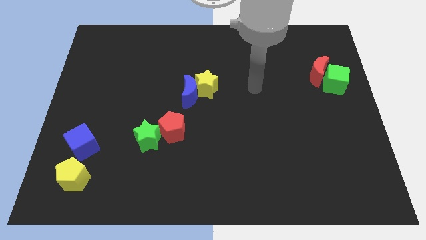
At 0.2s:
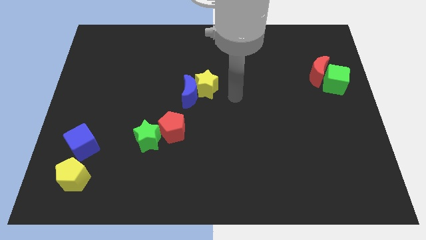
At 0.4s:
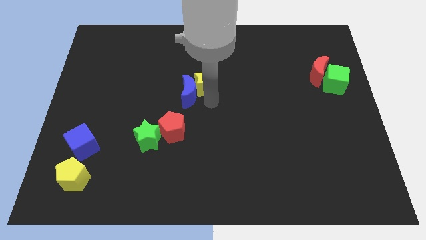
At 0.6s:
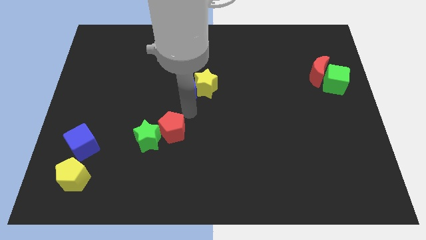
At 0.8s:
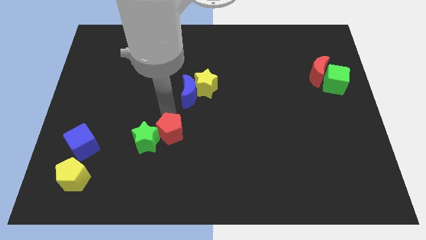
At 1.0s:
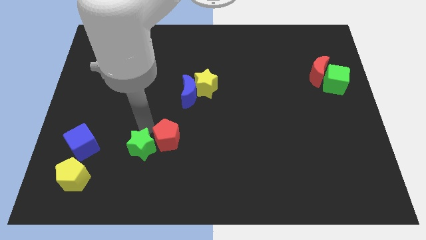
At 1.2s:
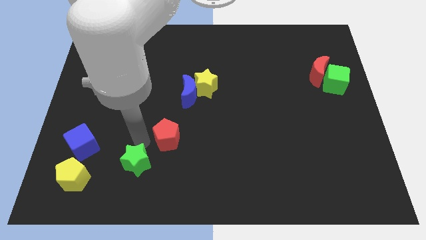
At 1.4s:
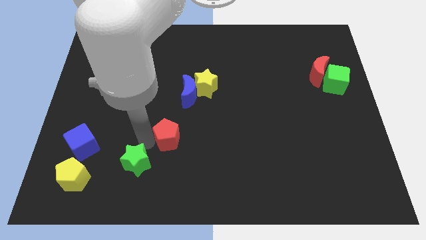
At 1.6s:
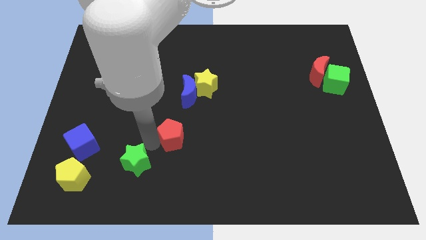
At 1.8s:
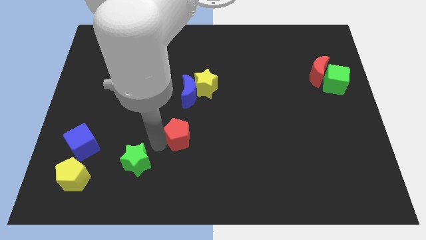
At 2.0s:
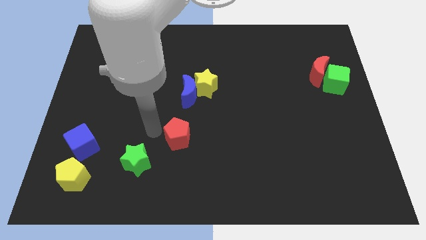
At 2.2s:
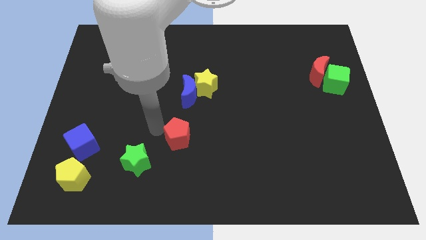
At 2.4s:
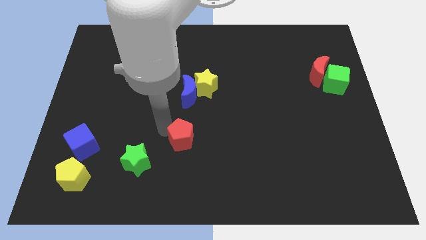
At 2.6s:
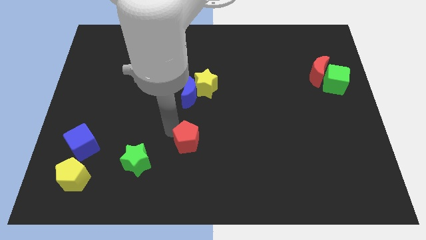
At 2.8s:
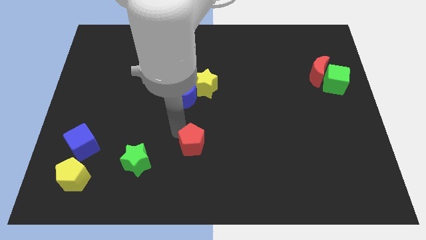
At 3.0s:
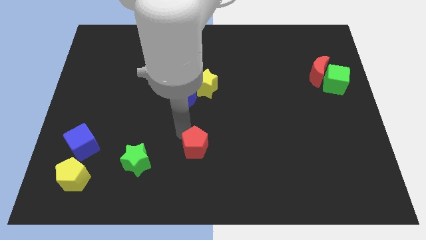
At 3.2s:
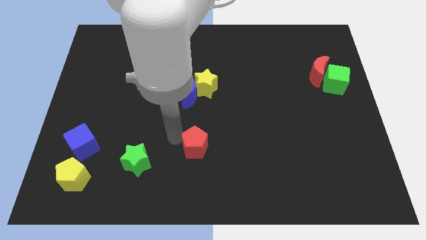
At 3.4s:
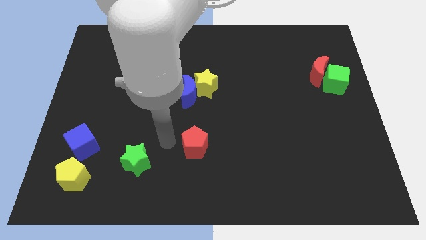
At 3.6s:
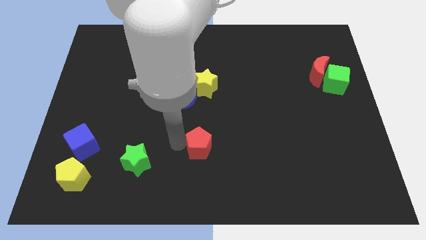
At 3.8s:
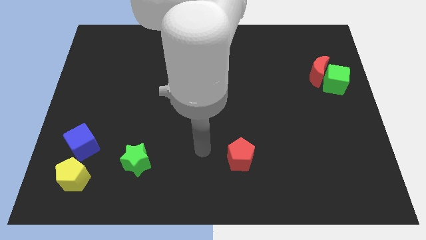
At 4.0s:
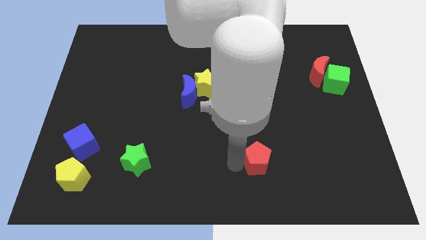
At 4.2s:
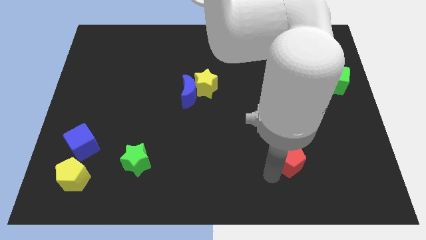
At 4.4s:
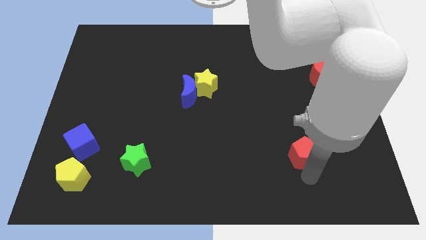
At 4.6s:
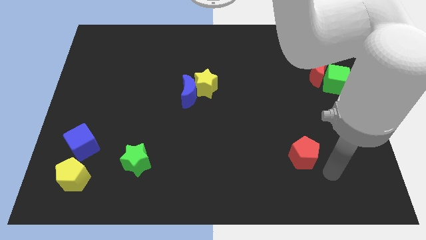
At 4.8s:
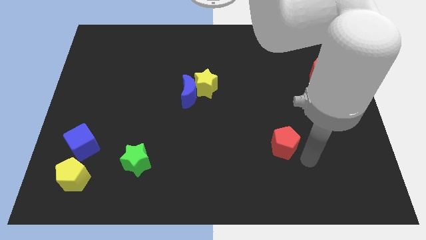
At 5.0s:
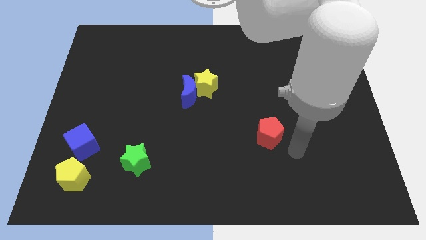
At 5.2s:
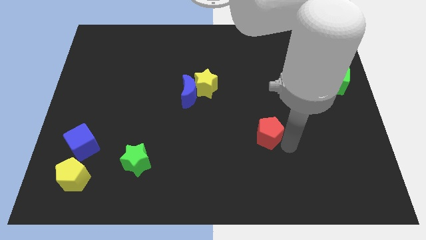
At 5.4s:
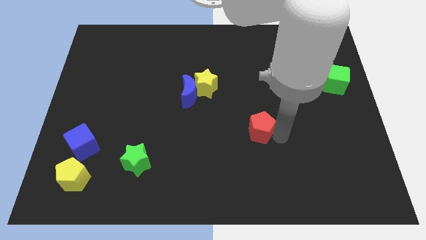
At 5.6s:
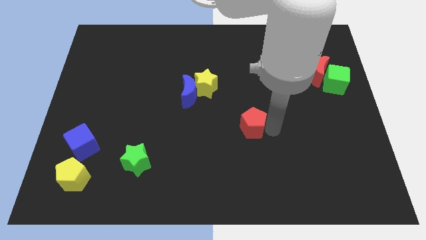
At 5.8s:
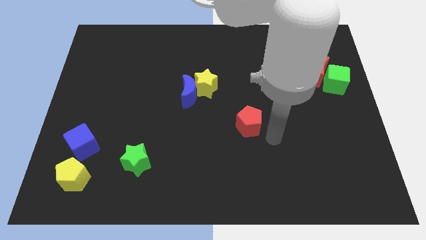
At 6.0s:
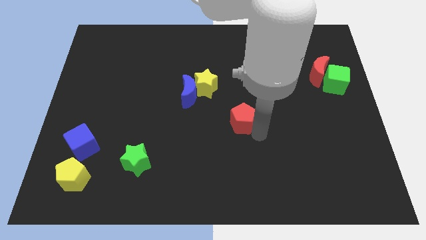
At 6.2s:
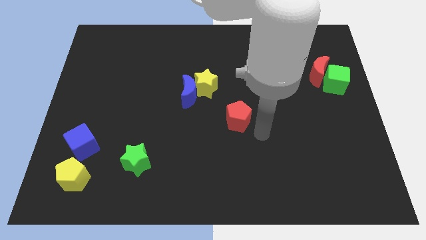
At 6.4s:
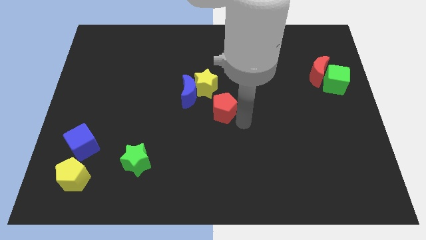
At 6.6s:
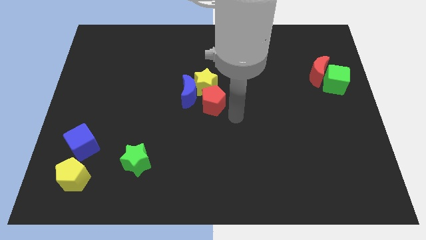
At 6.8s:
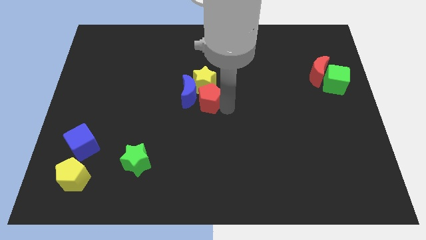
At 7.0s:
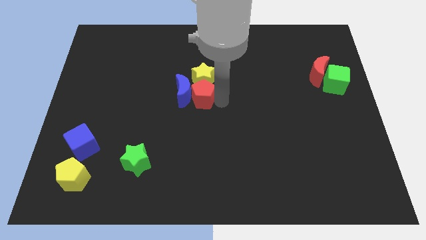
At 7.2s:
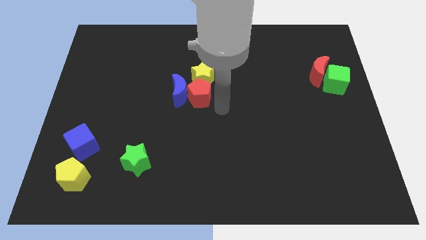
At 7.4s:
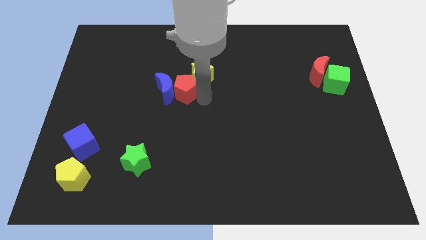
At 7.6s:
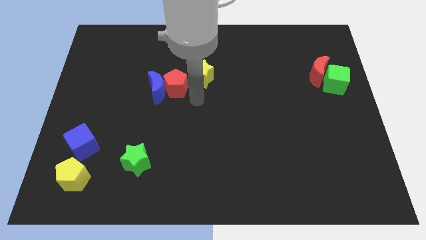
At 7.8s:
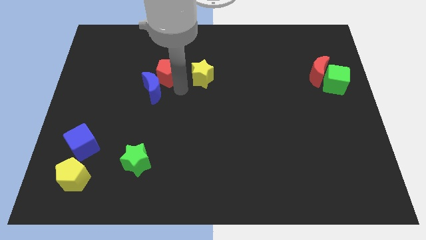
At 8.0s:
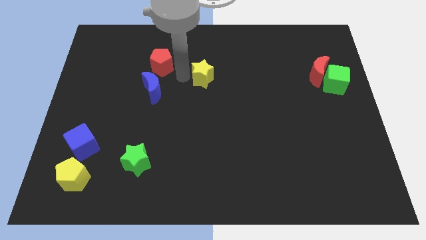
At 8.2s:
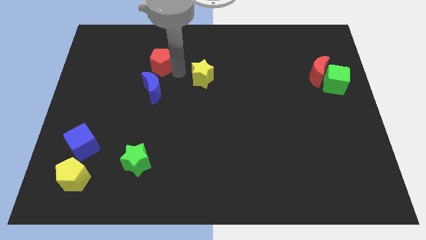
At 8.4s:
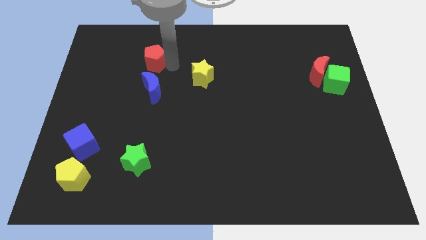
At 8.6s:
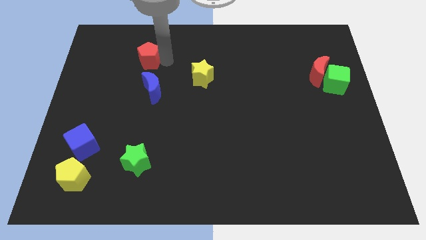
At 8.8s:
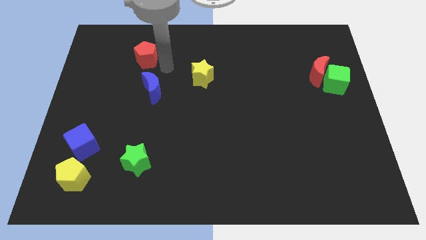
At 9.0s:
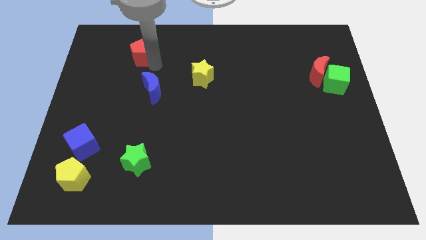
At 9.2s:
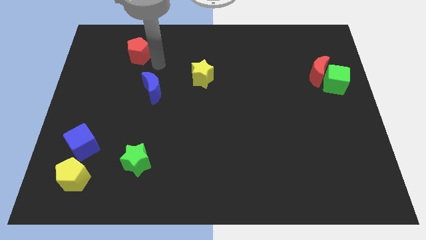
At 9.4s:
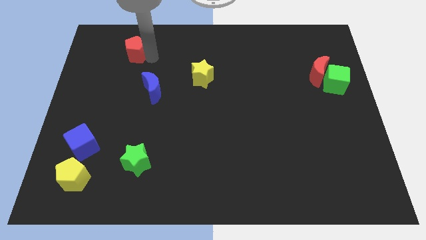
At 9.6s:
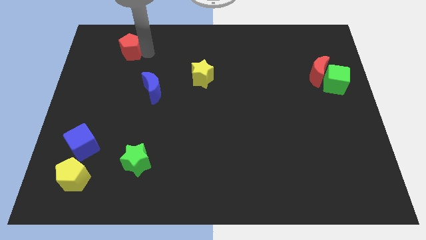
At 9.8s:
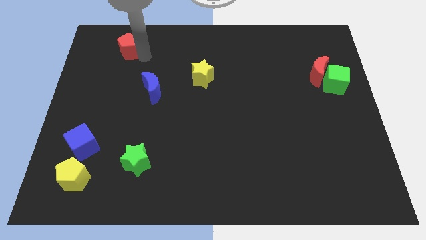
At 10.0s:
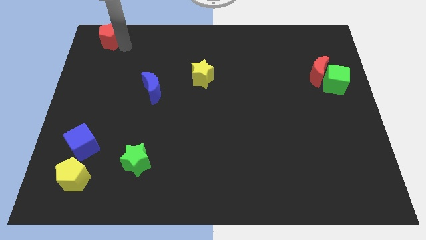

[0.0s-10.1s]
move the red pentagon to the upper left corner

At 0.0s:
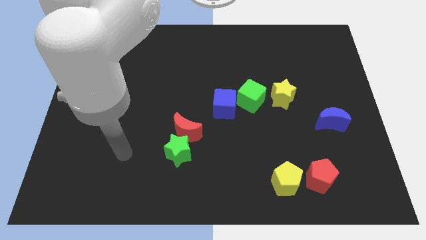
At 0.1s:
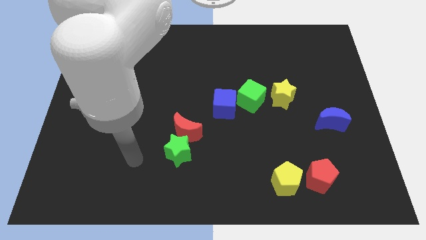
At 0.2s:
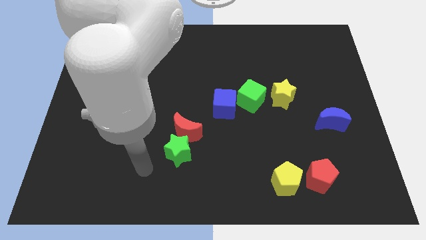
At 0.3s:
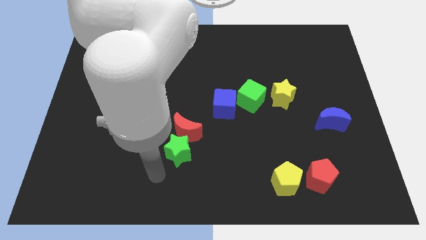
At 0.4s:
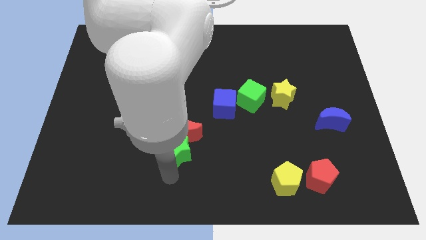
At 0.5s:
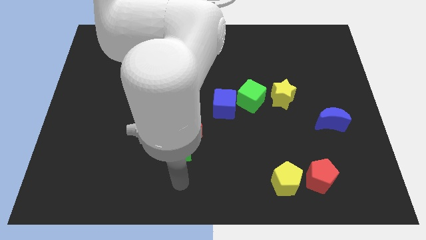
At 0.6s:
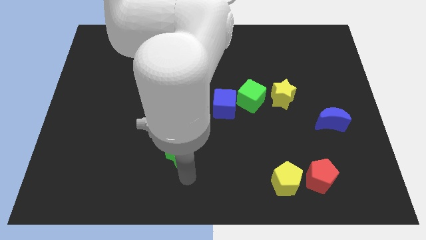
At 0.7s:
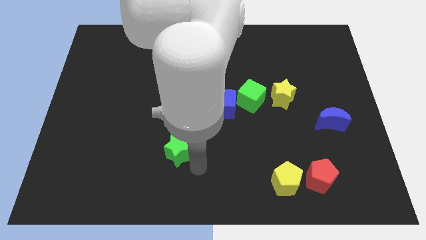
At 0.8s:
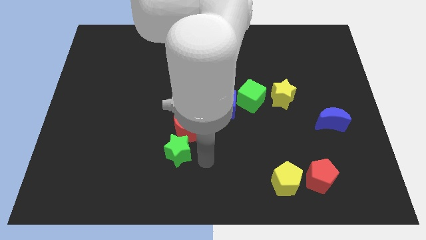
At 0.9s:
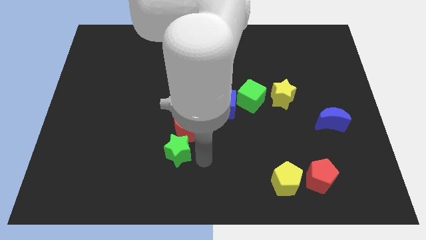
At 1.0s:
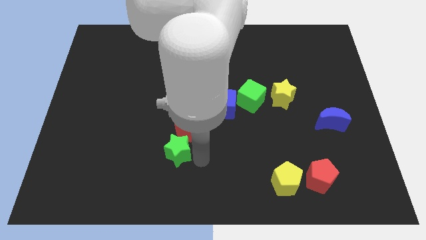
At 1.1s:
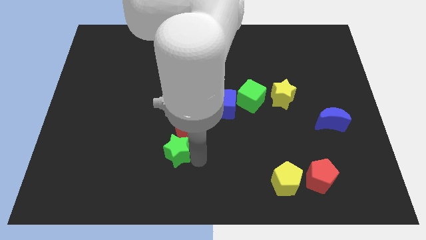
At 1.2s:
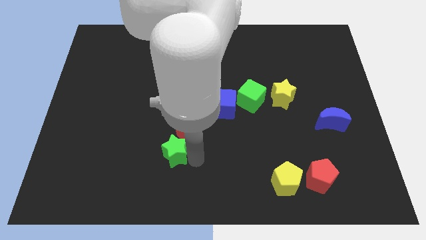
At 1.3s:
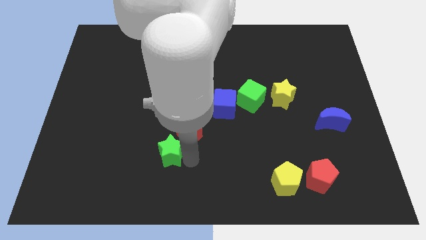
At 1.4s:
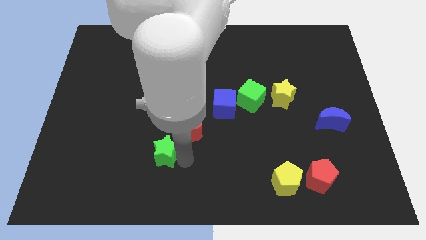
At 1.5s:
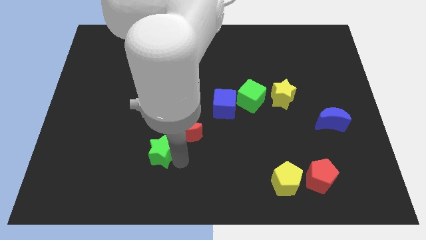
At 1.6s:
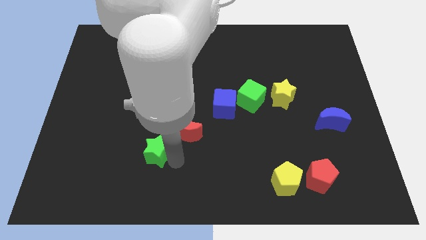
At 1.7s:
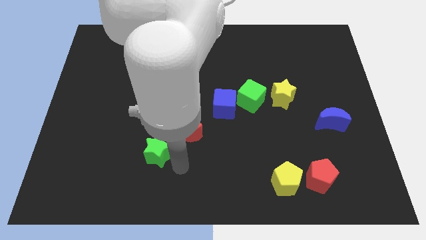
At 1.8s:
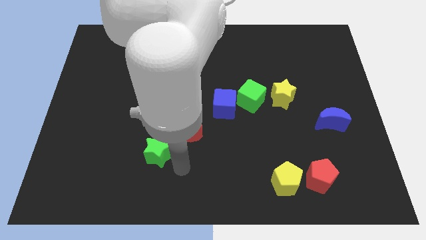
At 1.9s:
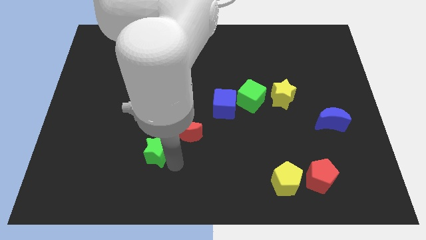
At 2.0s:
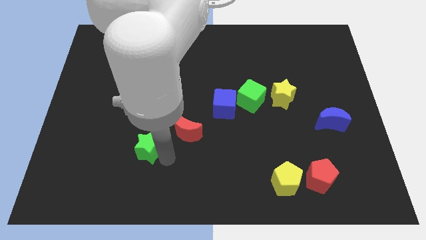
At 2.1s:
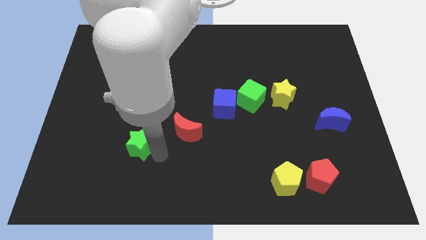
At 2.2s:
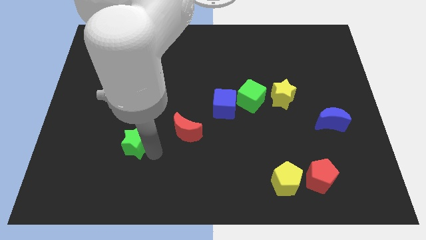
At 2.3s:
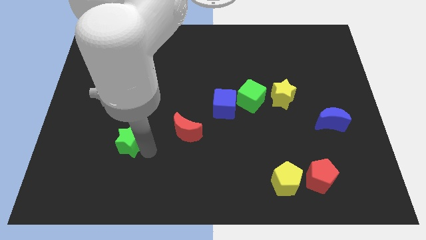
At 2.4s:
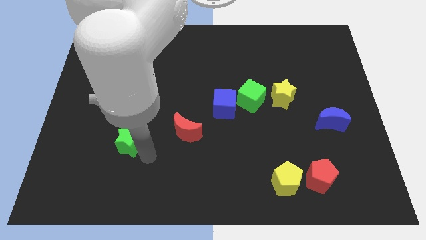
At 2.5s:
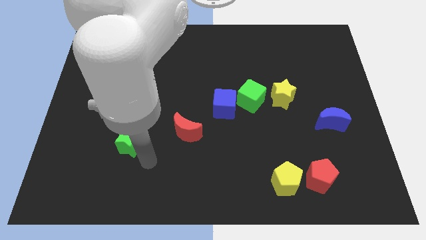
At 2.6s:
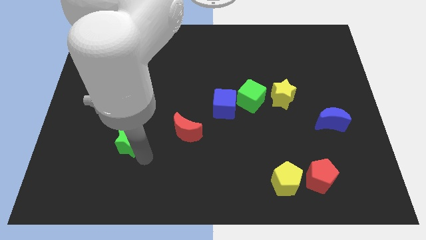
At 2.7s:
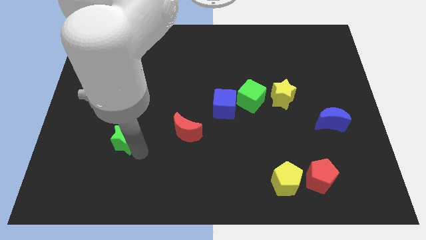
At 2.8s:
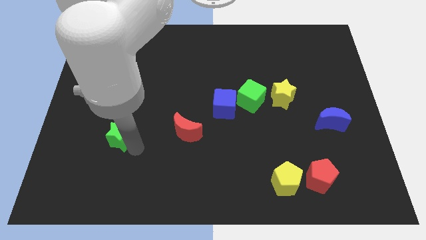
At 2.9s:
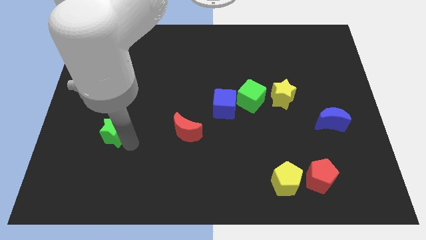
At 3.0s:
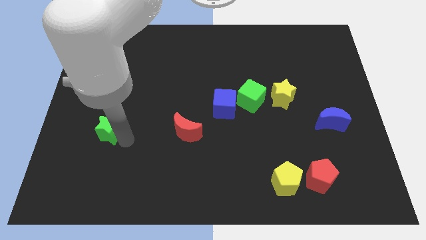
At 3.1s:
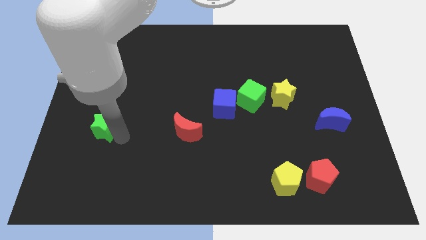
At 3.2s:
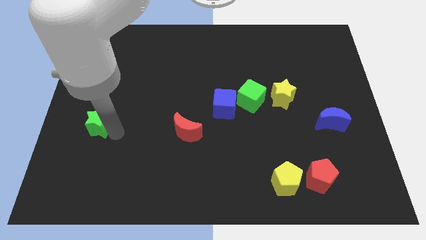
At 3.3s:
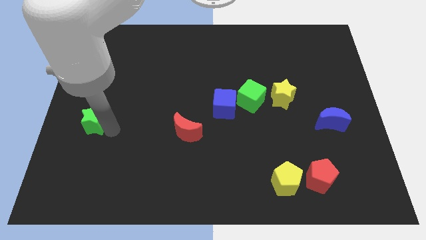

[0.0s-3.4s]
put the green star to the center left
